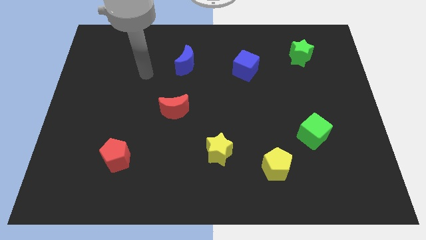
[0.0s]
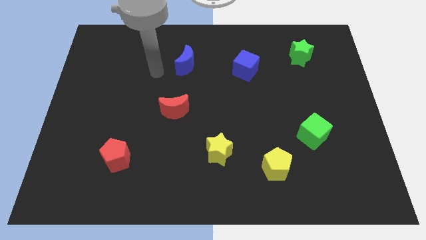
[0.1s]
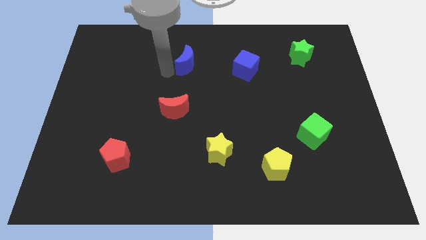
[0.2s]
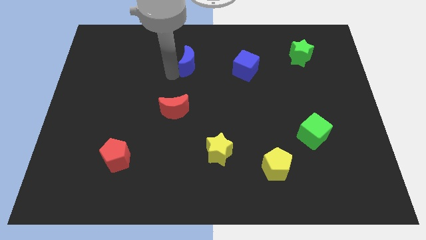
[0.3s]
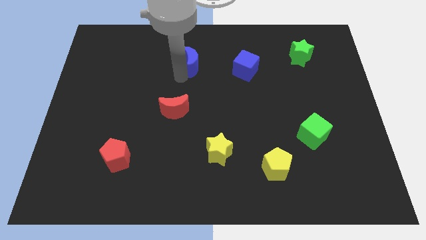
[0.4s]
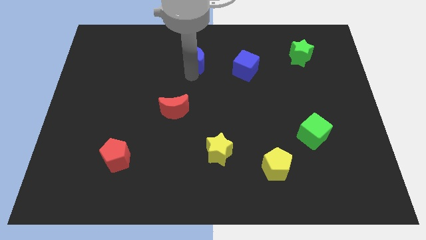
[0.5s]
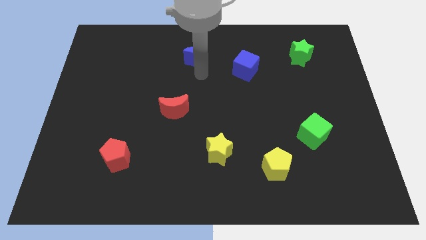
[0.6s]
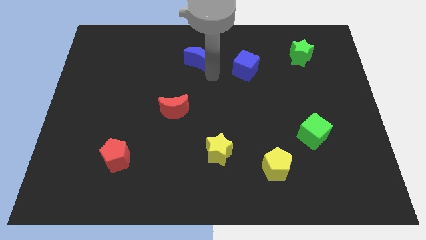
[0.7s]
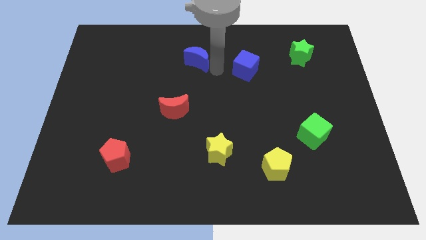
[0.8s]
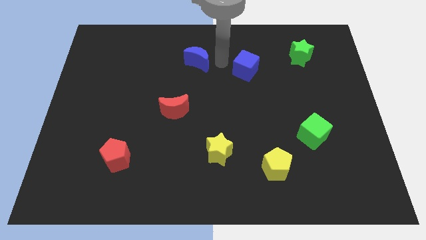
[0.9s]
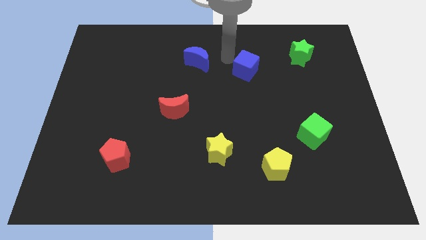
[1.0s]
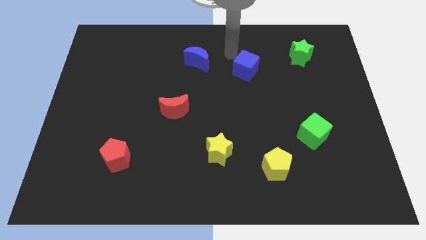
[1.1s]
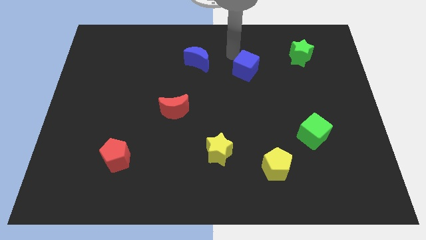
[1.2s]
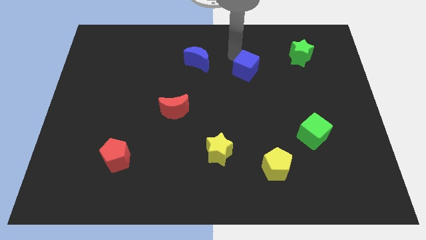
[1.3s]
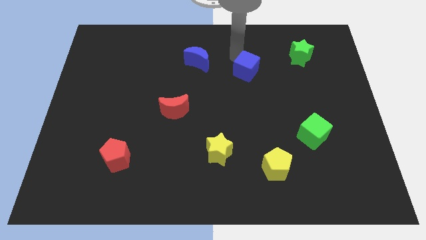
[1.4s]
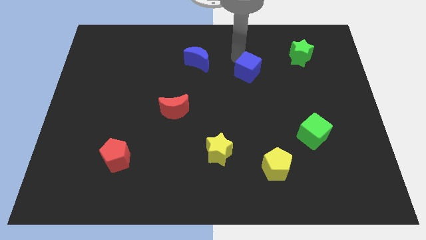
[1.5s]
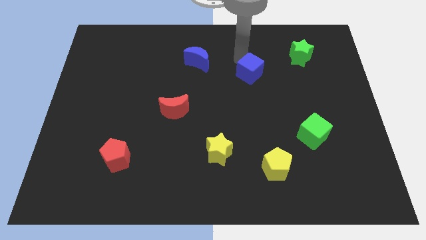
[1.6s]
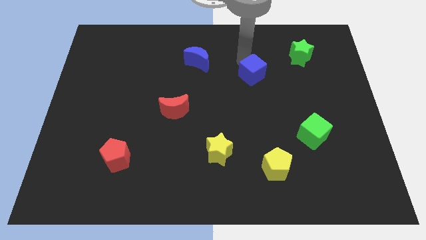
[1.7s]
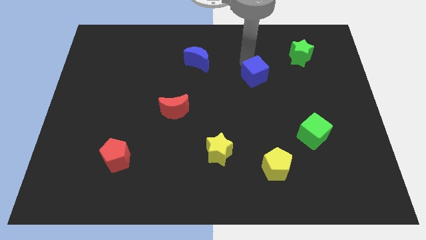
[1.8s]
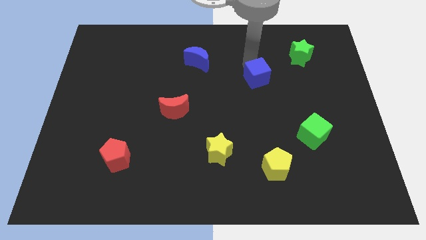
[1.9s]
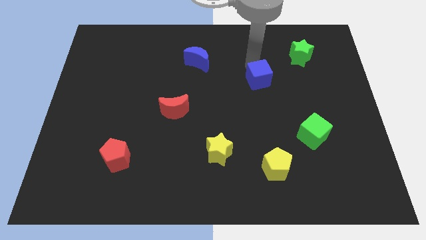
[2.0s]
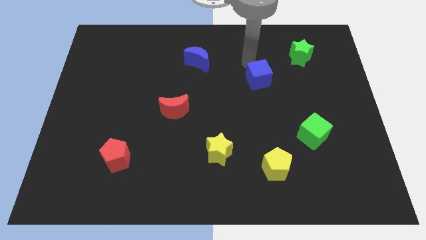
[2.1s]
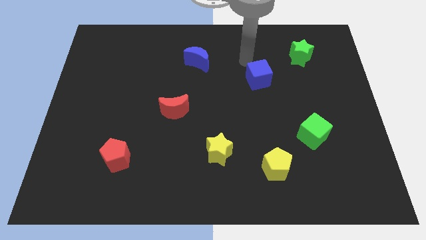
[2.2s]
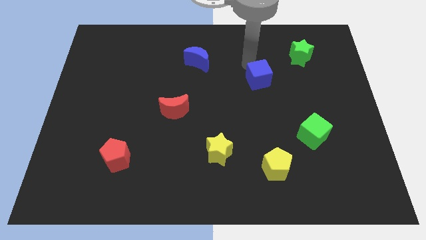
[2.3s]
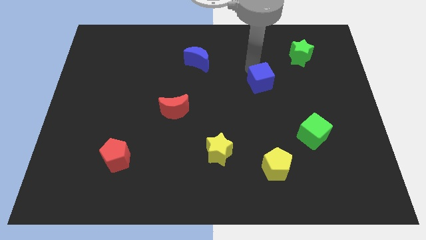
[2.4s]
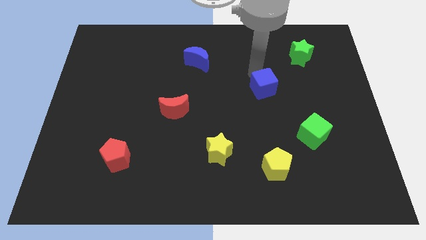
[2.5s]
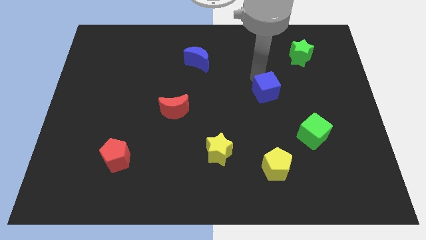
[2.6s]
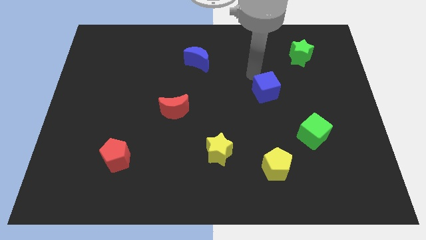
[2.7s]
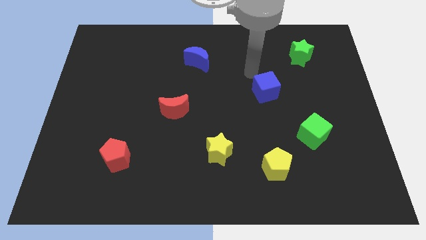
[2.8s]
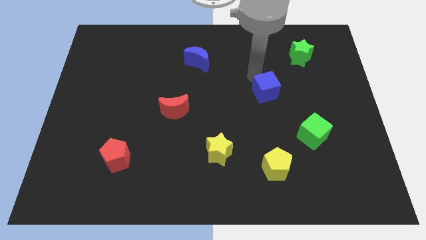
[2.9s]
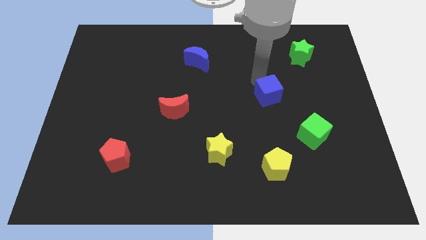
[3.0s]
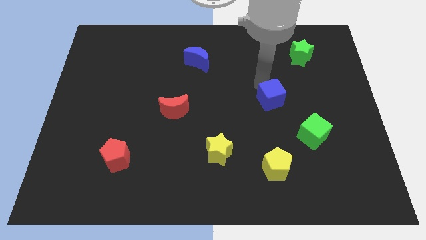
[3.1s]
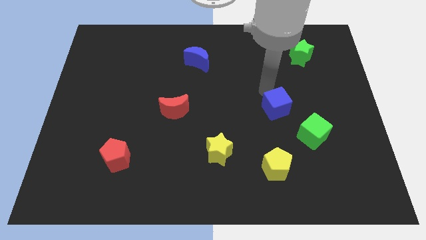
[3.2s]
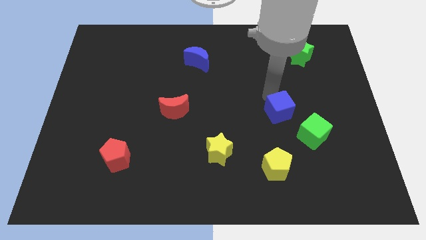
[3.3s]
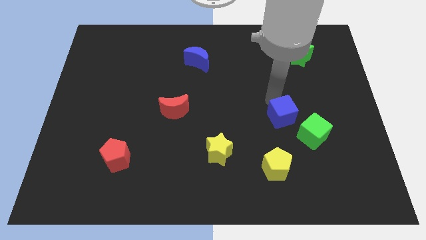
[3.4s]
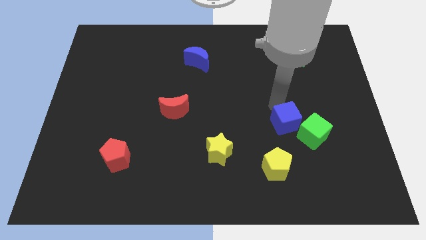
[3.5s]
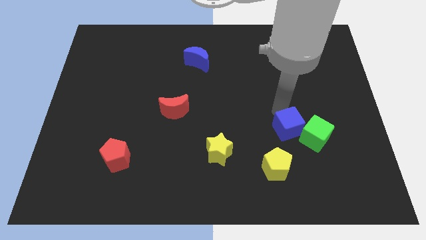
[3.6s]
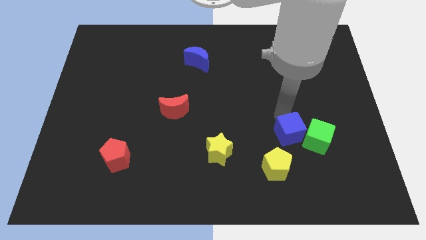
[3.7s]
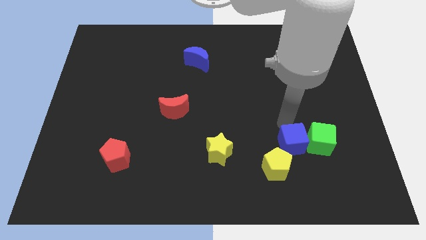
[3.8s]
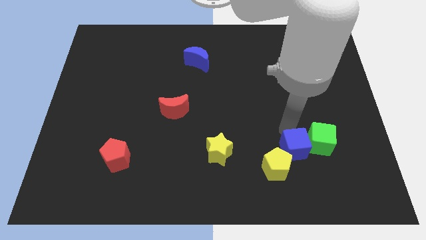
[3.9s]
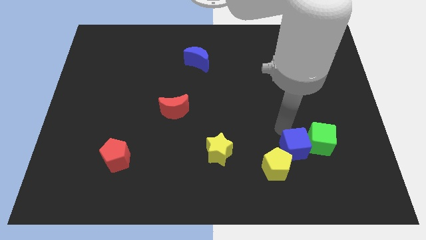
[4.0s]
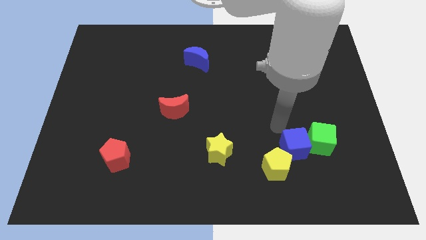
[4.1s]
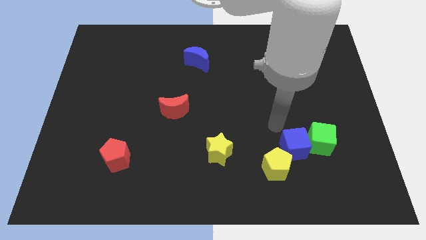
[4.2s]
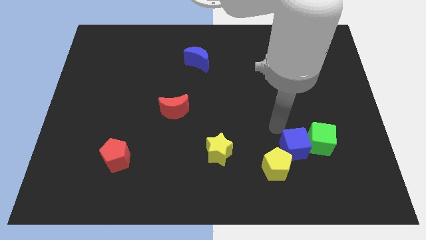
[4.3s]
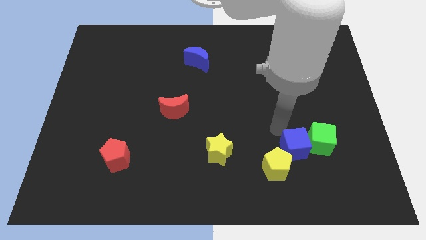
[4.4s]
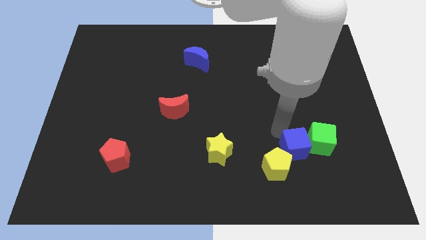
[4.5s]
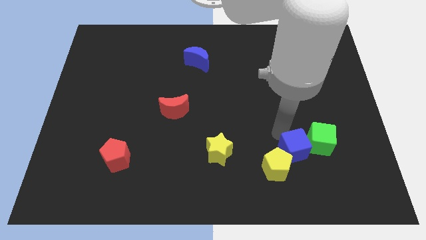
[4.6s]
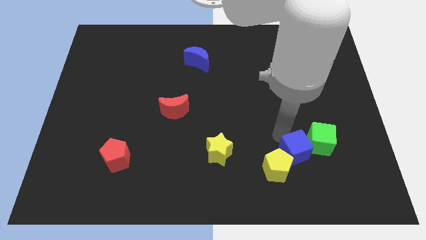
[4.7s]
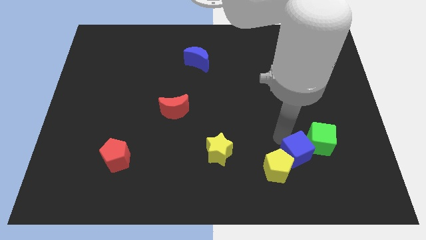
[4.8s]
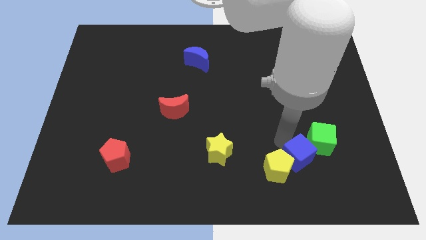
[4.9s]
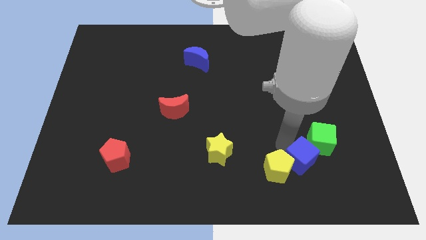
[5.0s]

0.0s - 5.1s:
slide the blue cube to the bottom of the green cube

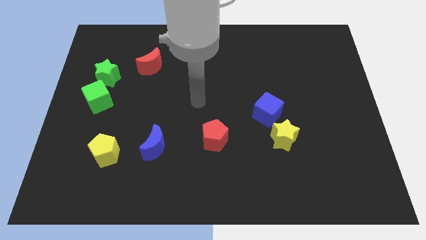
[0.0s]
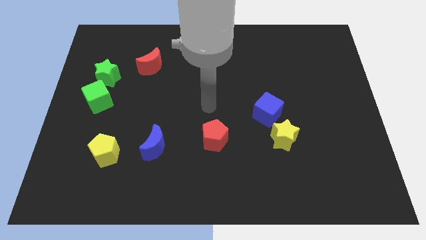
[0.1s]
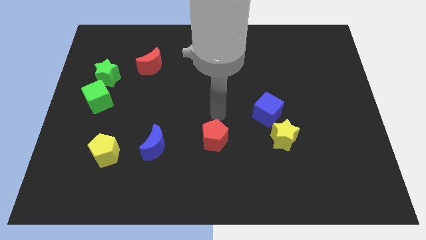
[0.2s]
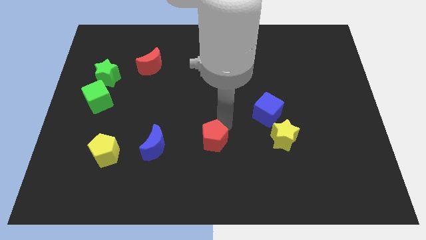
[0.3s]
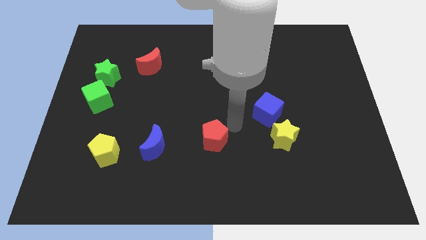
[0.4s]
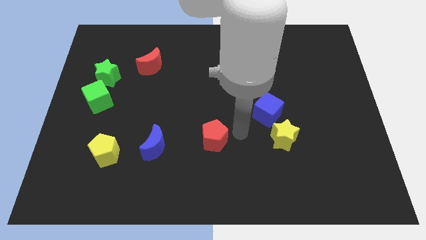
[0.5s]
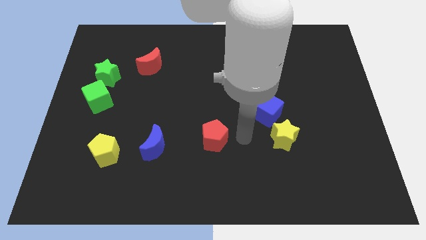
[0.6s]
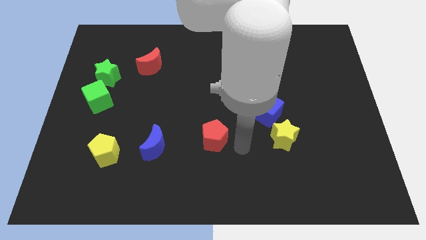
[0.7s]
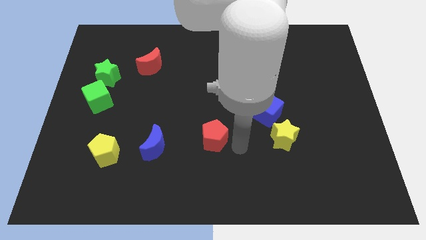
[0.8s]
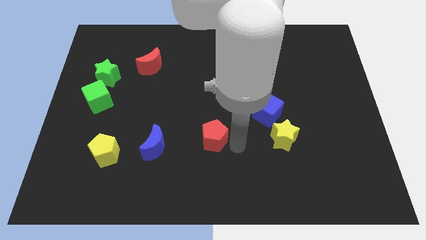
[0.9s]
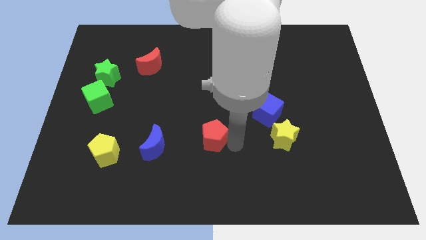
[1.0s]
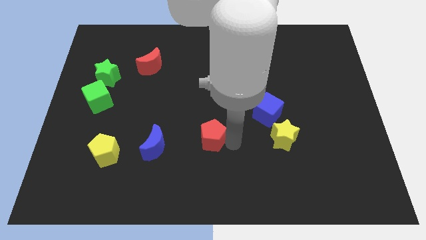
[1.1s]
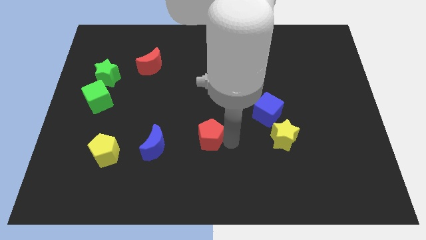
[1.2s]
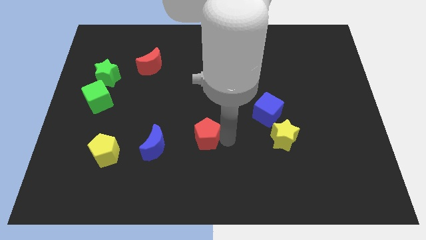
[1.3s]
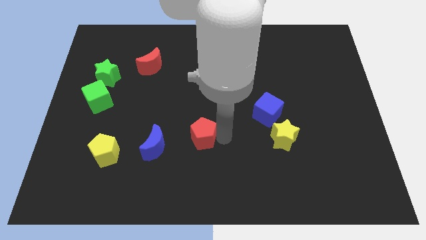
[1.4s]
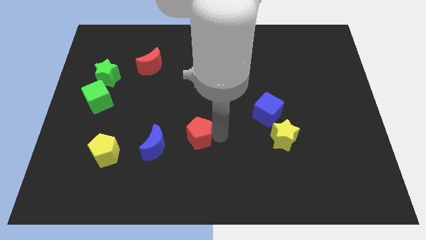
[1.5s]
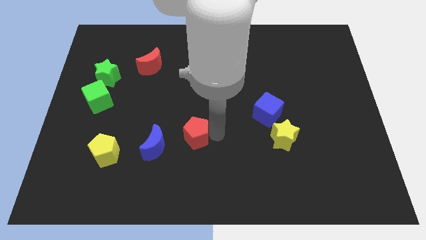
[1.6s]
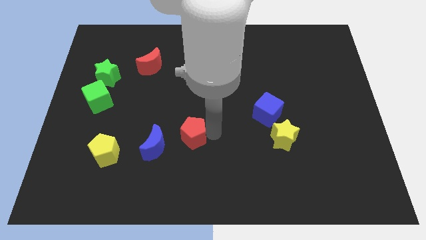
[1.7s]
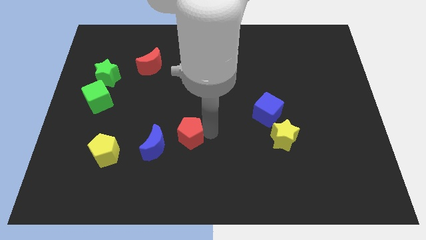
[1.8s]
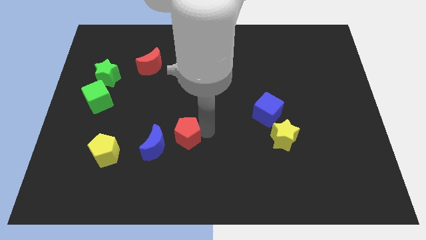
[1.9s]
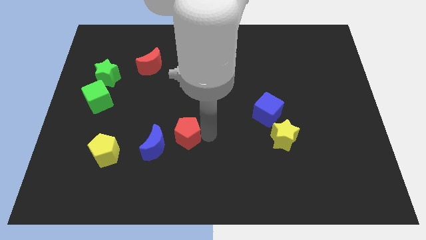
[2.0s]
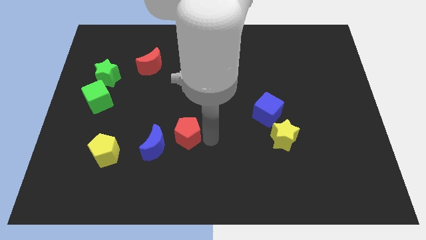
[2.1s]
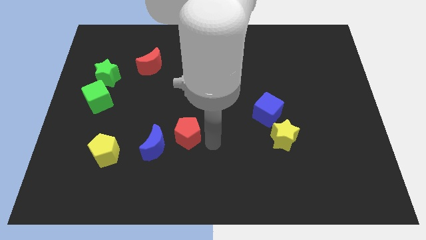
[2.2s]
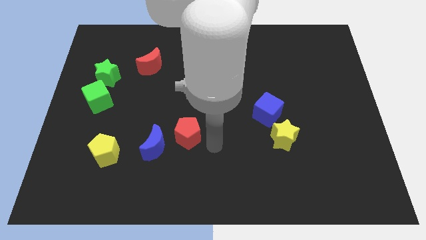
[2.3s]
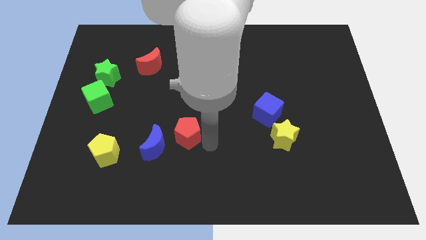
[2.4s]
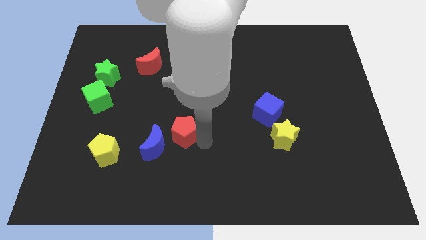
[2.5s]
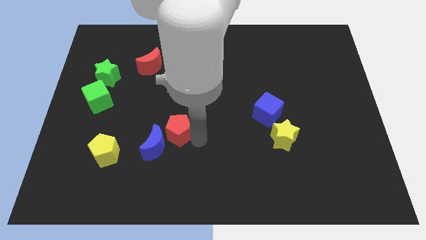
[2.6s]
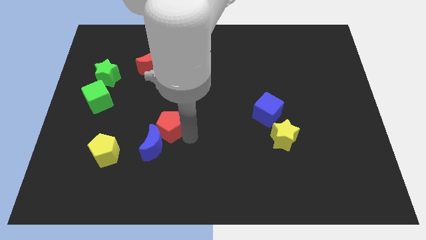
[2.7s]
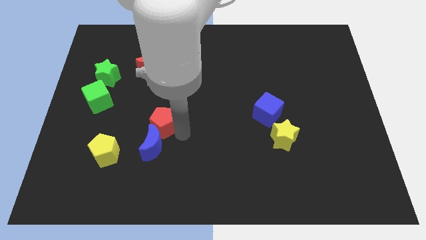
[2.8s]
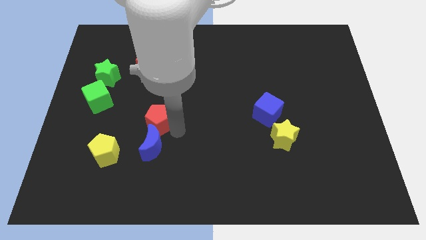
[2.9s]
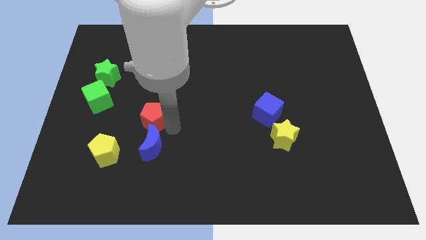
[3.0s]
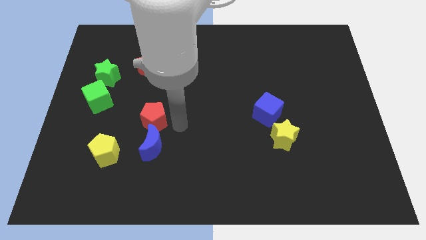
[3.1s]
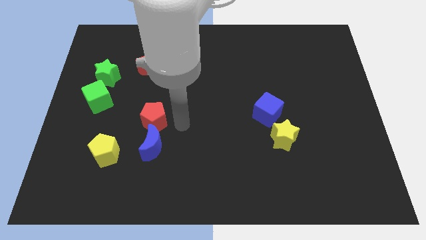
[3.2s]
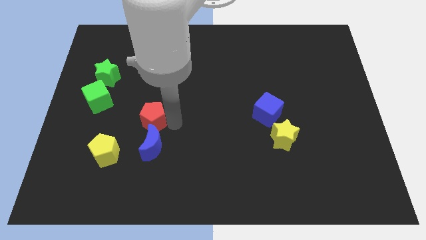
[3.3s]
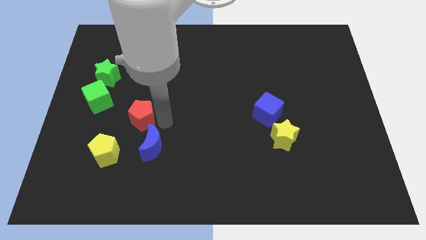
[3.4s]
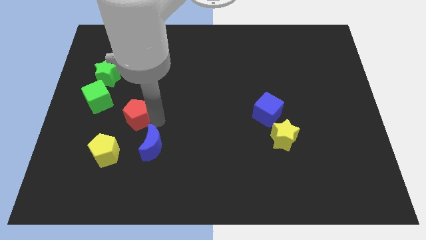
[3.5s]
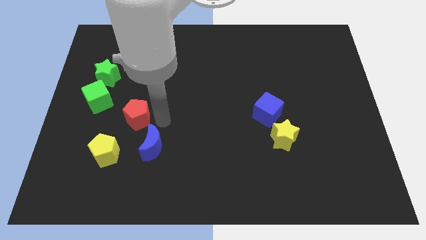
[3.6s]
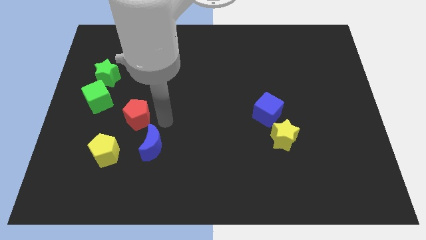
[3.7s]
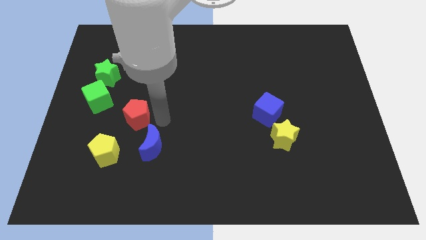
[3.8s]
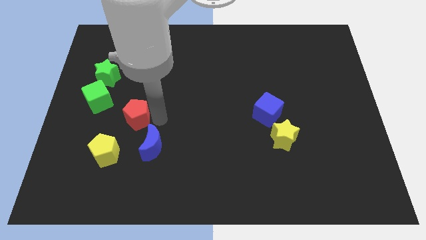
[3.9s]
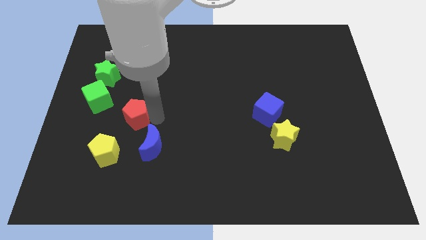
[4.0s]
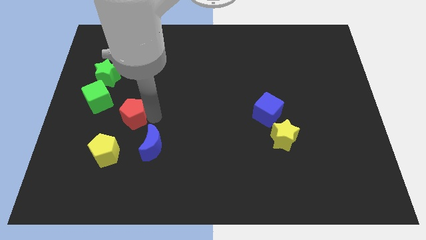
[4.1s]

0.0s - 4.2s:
push the red pentagon to the top side of the yellow pentagon
